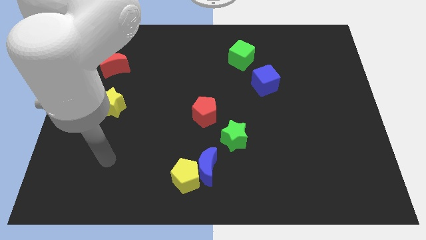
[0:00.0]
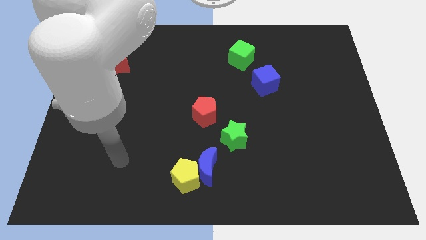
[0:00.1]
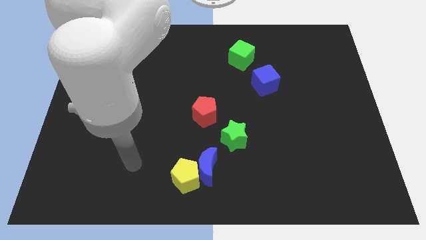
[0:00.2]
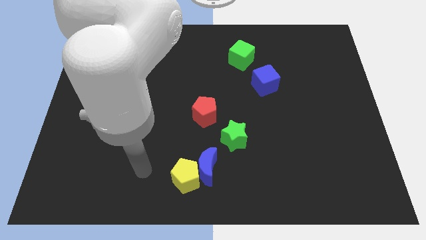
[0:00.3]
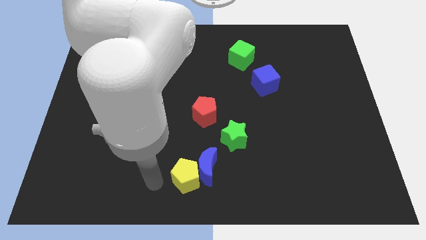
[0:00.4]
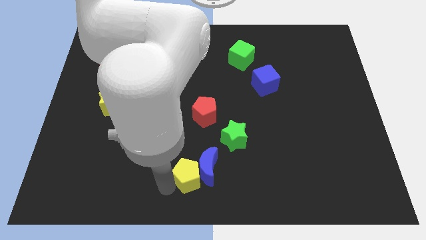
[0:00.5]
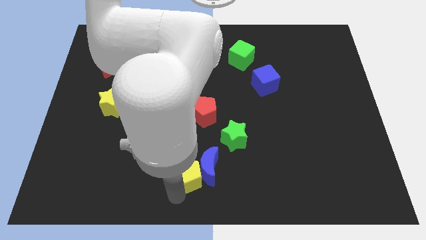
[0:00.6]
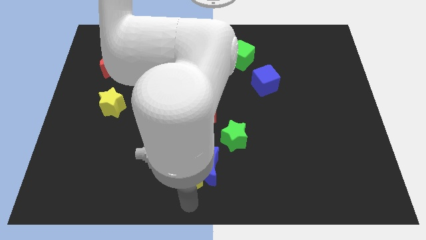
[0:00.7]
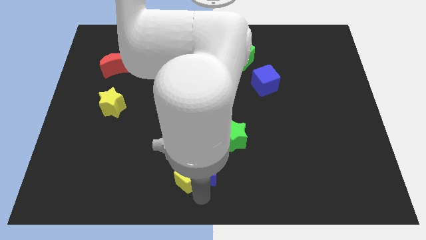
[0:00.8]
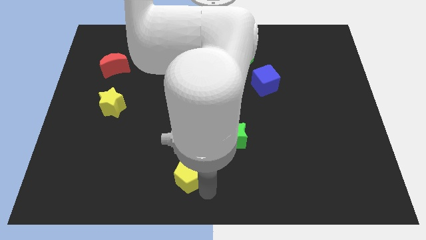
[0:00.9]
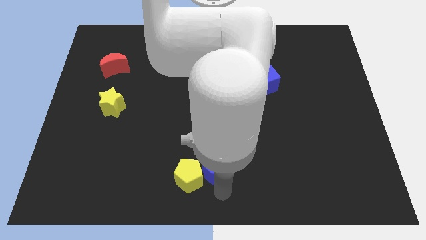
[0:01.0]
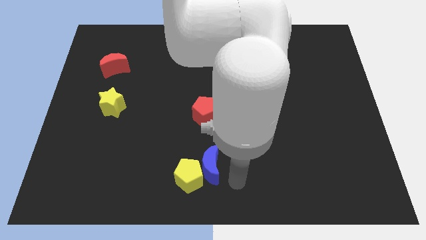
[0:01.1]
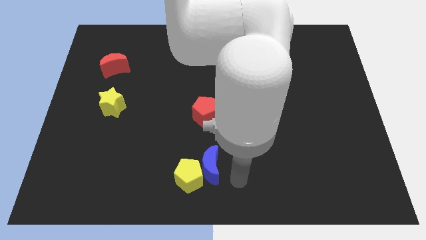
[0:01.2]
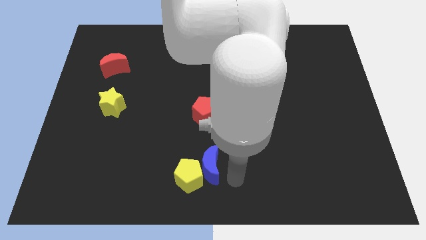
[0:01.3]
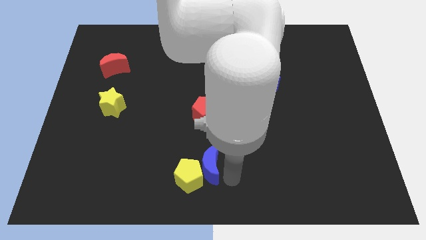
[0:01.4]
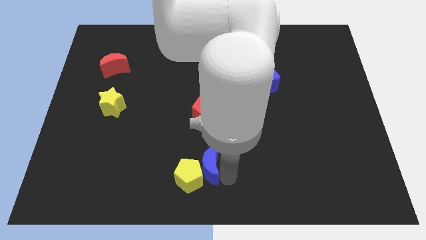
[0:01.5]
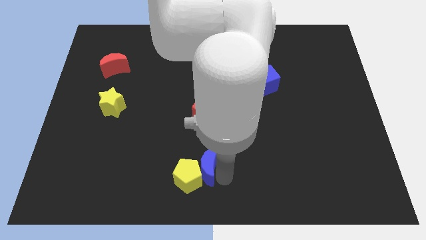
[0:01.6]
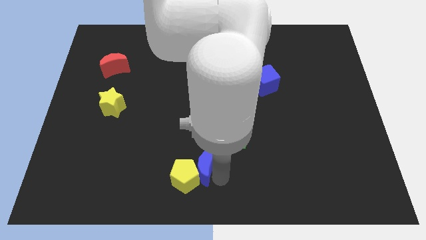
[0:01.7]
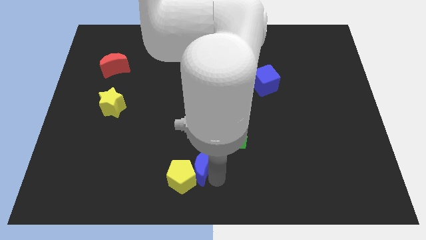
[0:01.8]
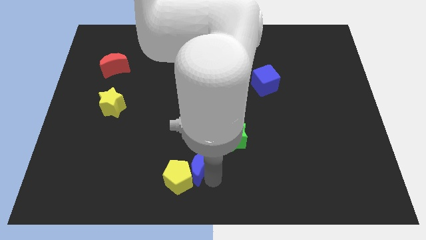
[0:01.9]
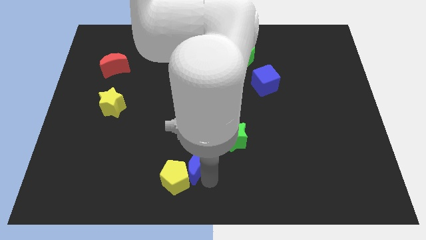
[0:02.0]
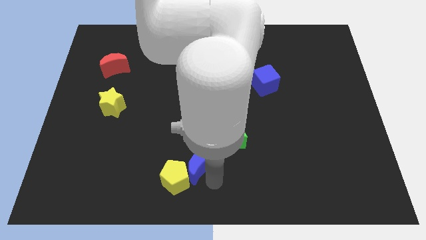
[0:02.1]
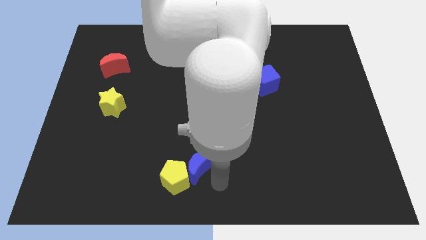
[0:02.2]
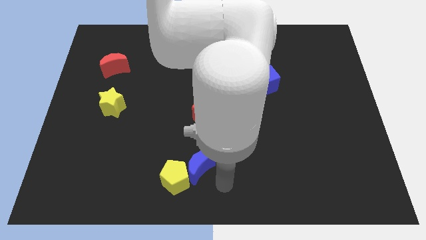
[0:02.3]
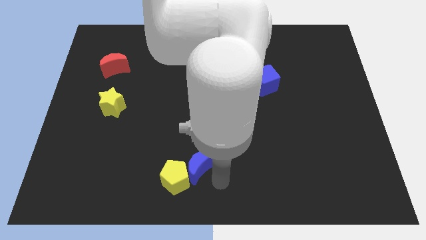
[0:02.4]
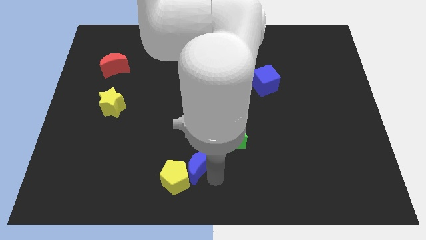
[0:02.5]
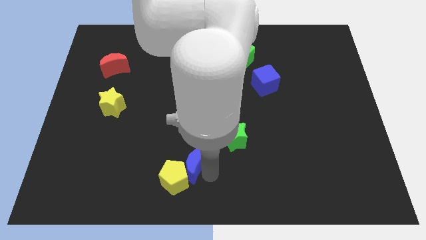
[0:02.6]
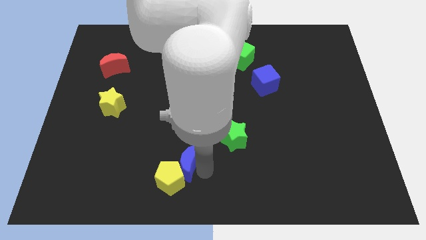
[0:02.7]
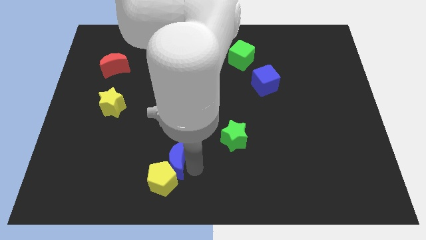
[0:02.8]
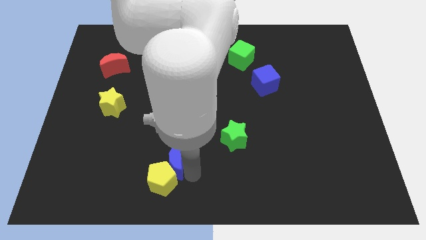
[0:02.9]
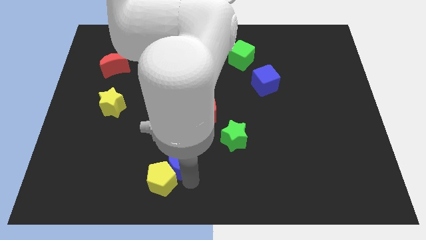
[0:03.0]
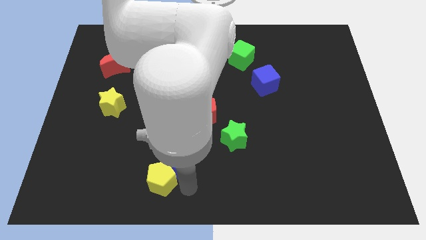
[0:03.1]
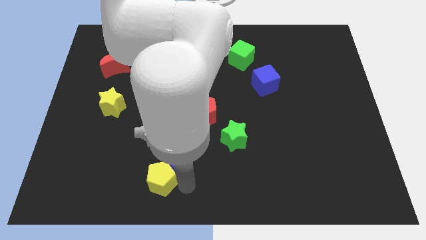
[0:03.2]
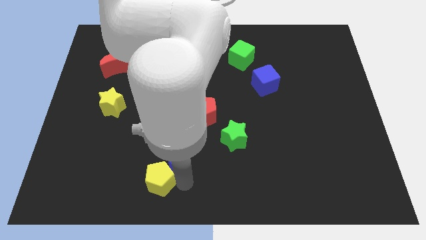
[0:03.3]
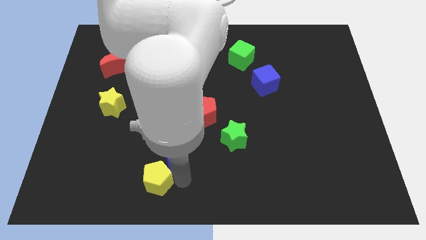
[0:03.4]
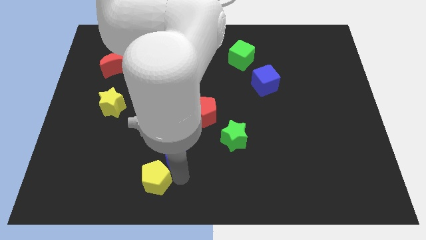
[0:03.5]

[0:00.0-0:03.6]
slightly move the blue moon up and then left

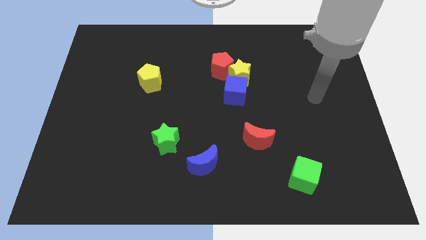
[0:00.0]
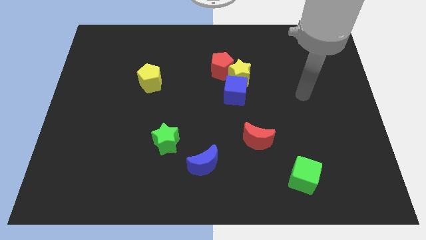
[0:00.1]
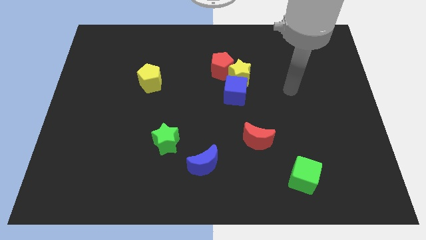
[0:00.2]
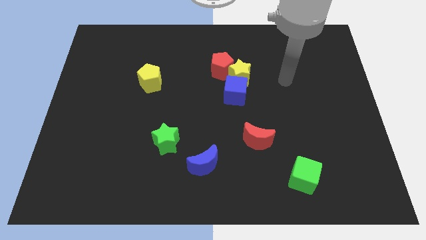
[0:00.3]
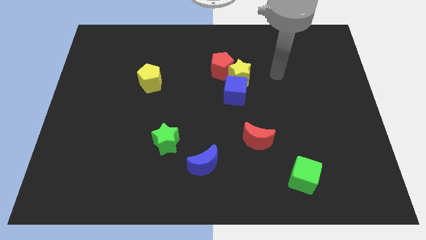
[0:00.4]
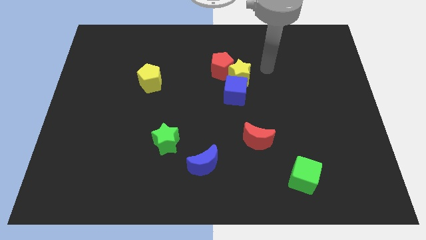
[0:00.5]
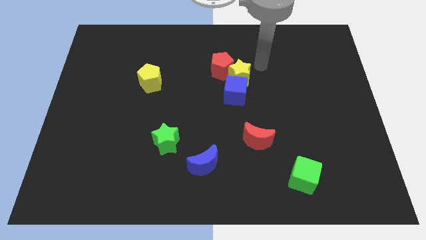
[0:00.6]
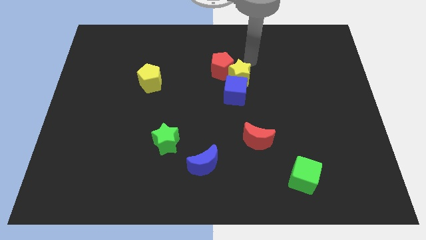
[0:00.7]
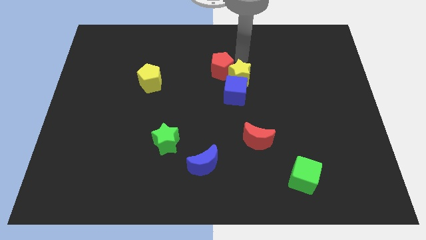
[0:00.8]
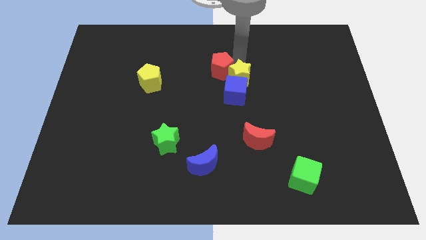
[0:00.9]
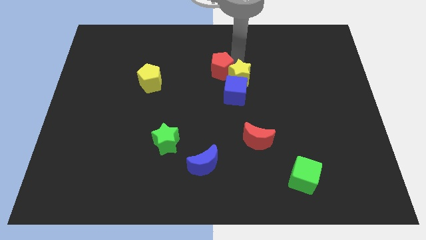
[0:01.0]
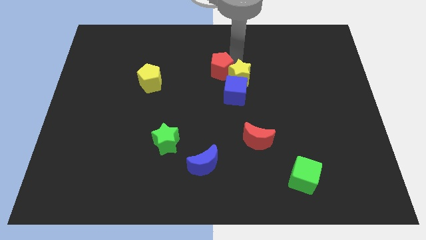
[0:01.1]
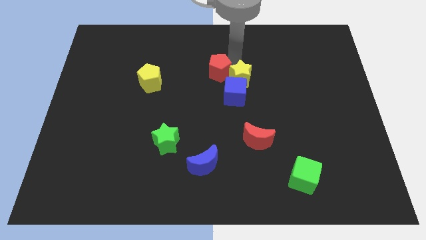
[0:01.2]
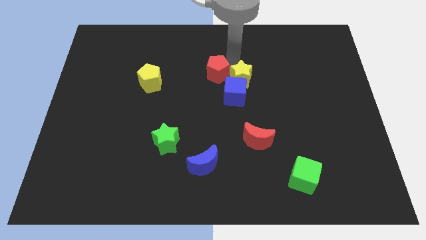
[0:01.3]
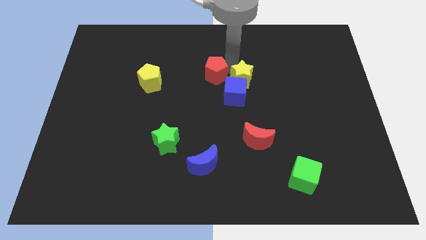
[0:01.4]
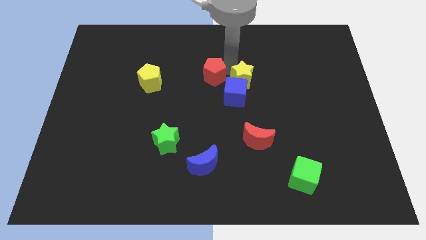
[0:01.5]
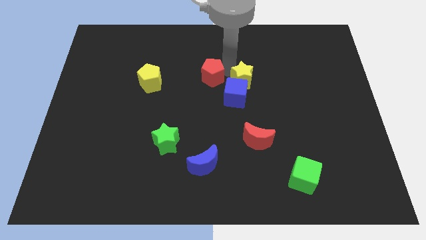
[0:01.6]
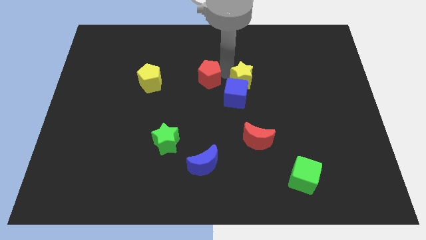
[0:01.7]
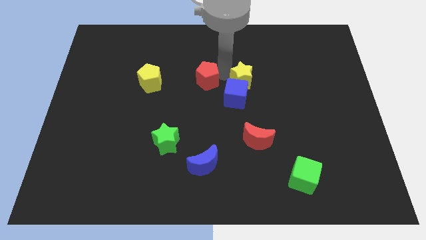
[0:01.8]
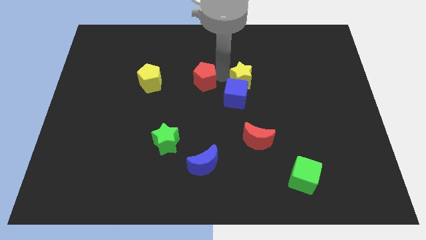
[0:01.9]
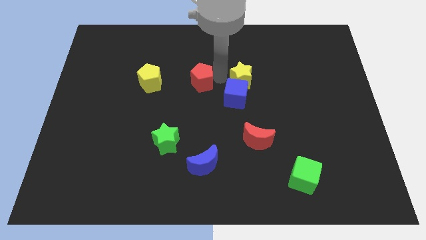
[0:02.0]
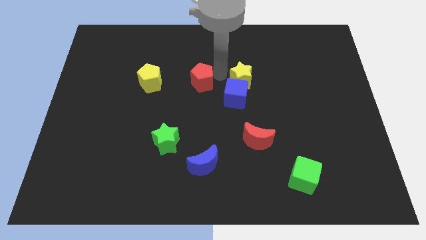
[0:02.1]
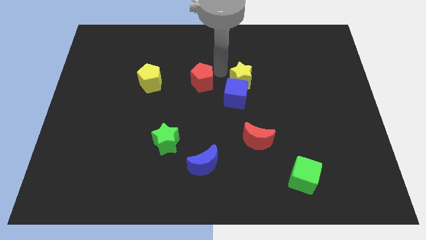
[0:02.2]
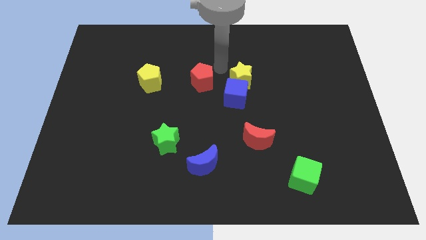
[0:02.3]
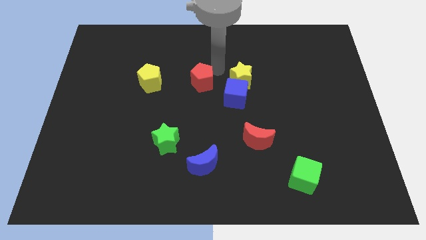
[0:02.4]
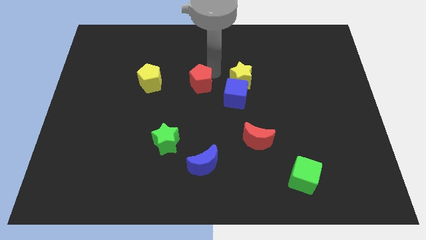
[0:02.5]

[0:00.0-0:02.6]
move the red pentagon somewhat downwards and left

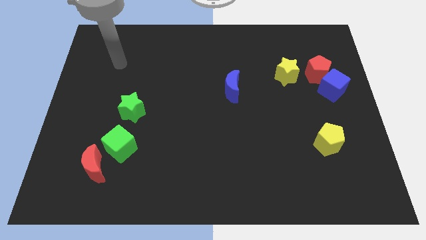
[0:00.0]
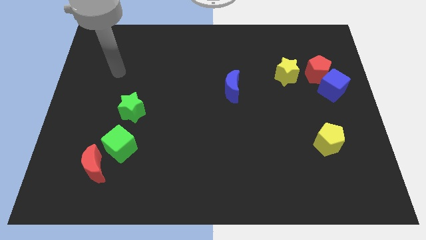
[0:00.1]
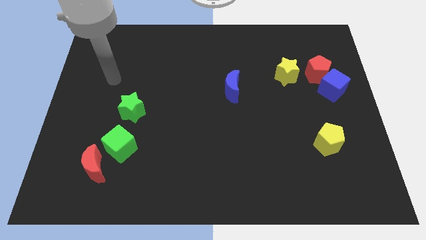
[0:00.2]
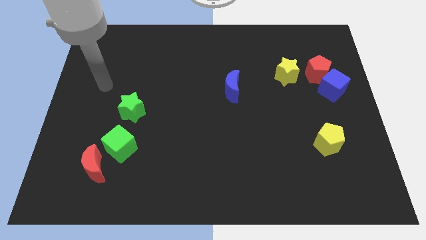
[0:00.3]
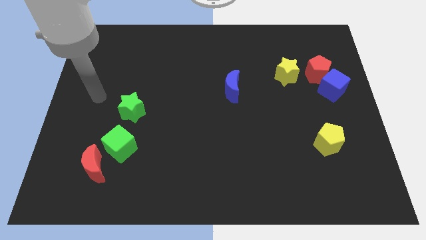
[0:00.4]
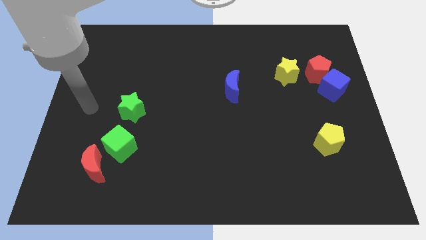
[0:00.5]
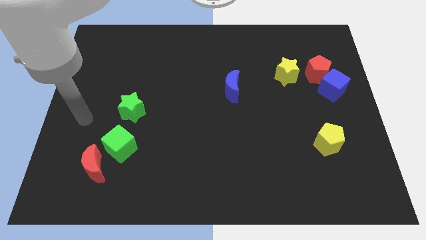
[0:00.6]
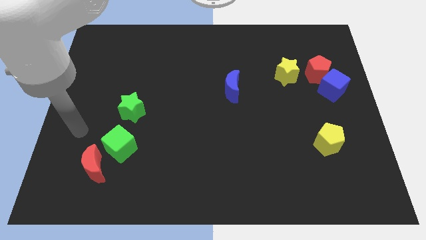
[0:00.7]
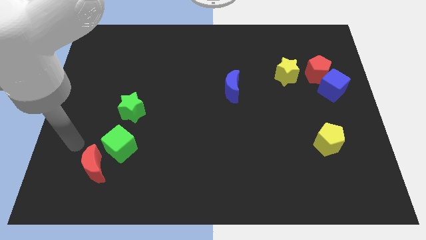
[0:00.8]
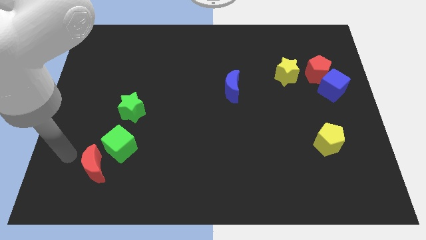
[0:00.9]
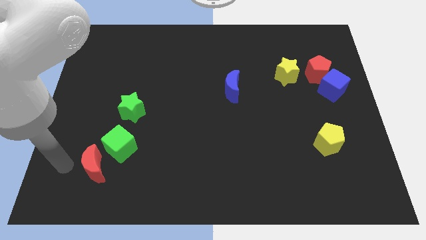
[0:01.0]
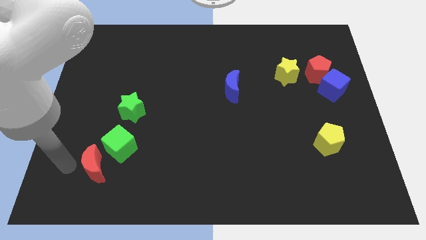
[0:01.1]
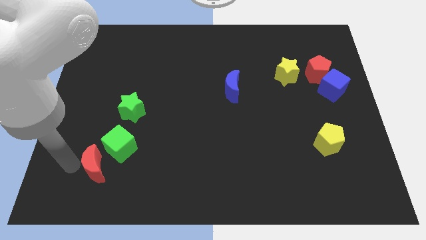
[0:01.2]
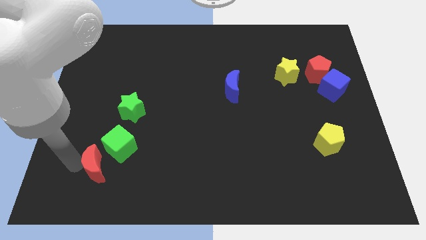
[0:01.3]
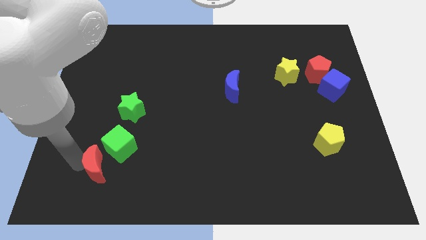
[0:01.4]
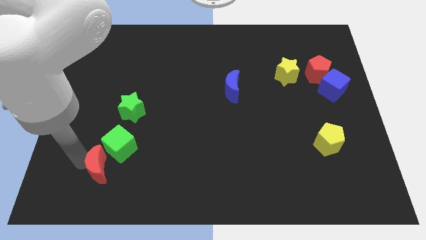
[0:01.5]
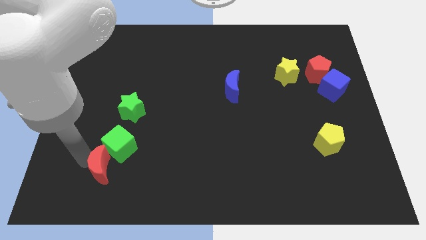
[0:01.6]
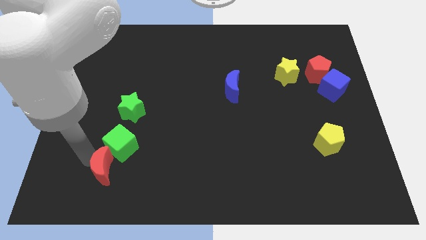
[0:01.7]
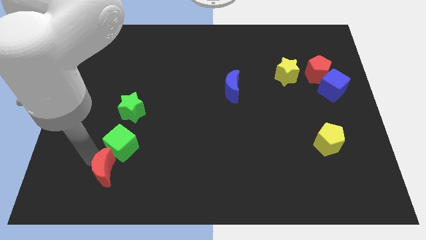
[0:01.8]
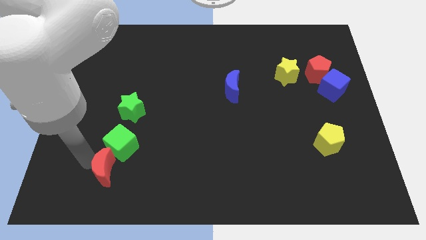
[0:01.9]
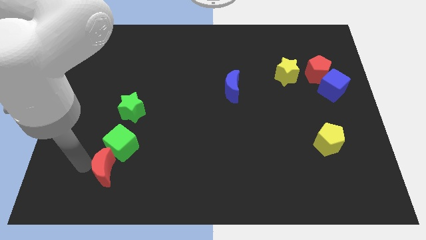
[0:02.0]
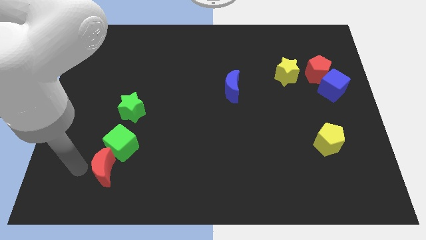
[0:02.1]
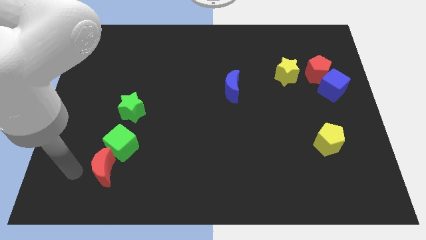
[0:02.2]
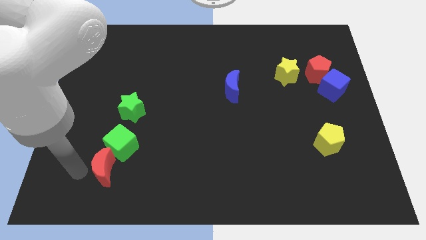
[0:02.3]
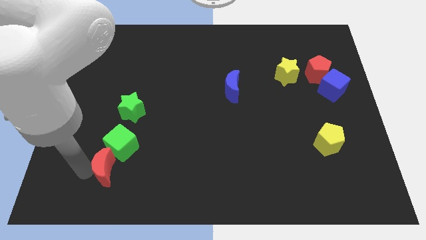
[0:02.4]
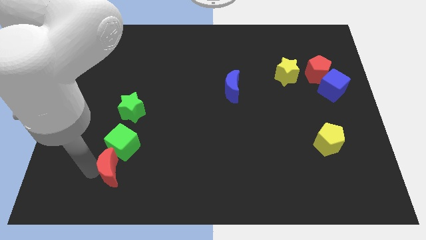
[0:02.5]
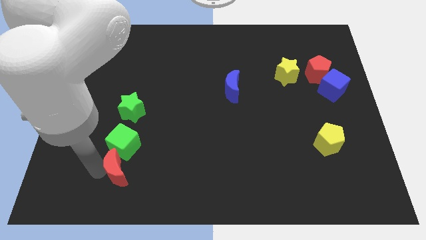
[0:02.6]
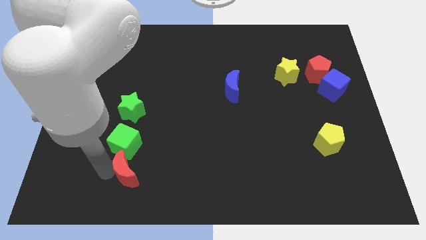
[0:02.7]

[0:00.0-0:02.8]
slide the red moon a little right
